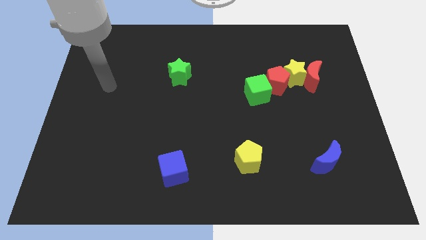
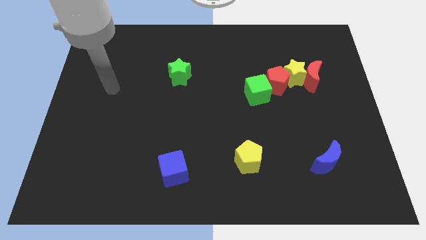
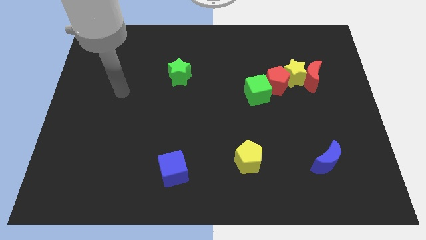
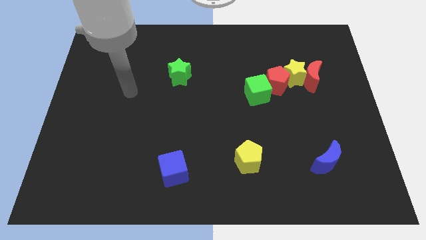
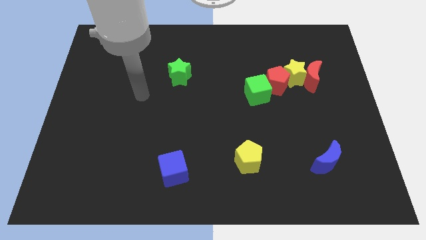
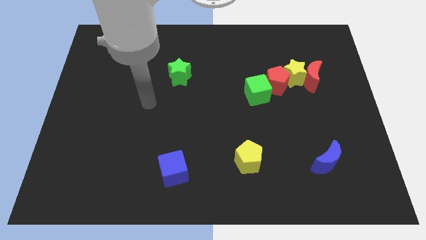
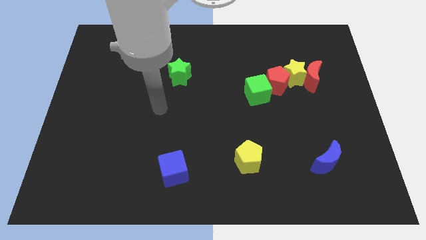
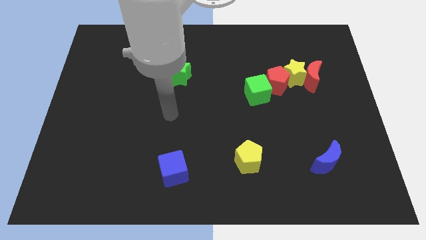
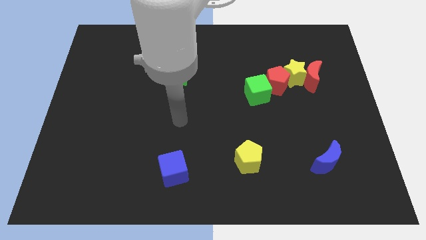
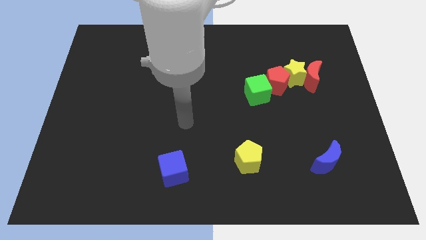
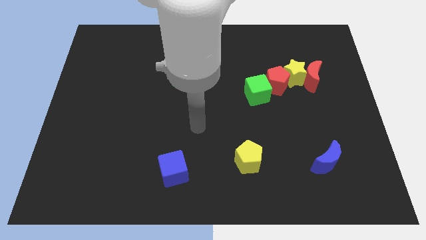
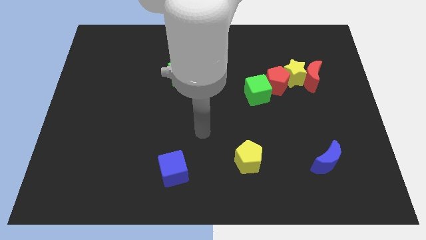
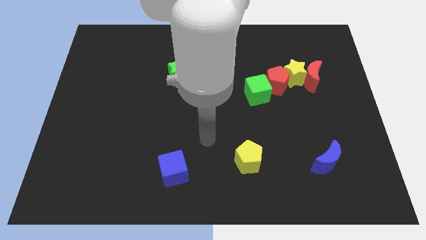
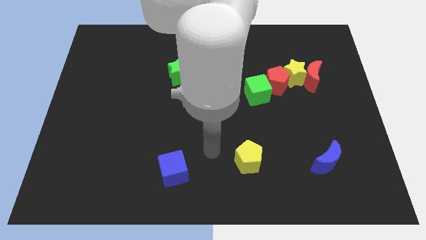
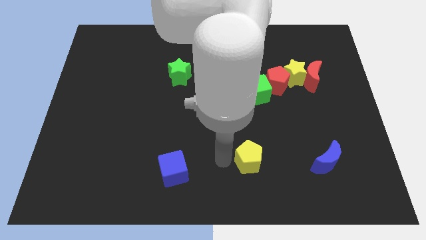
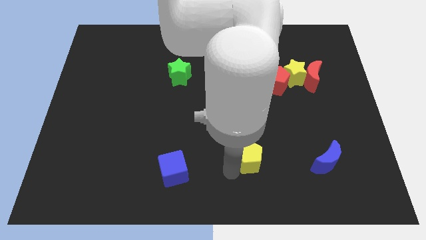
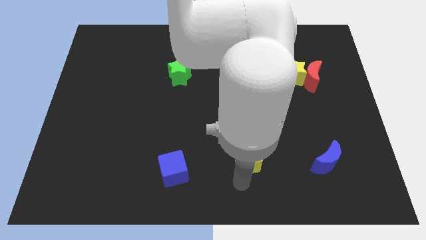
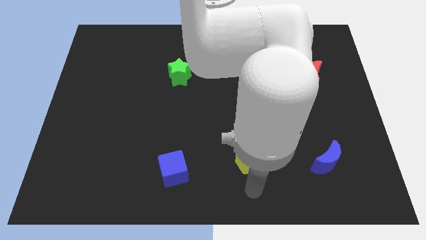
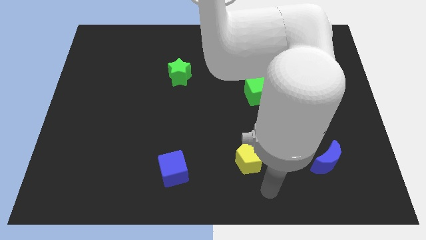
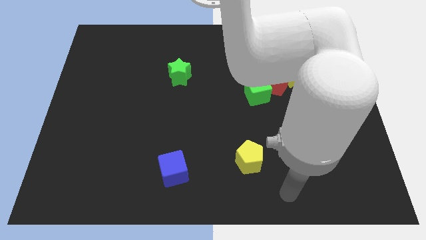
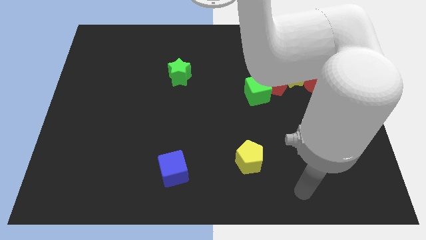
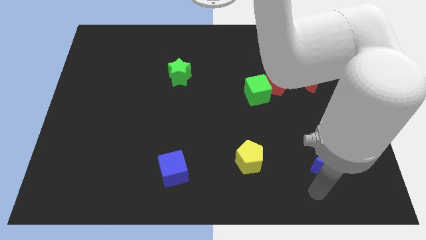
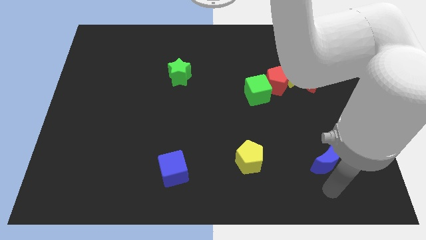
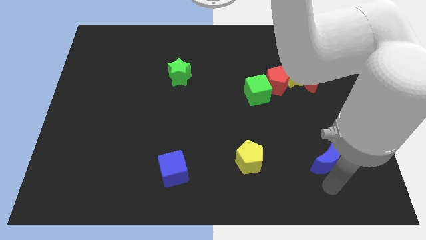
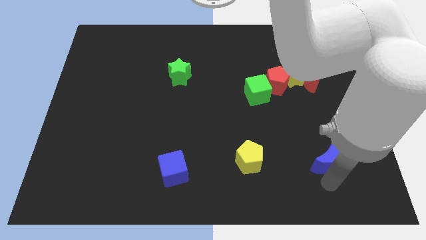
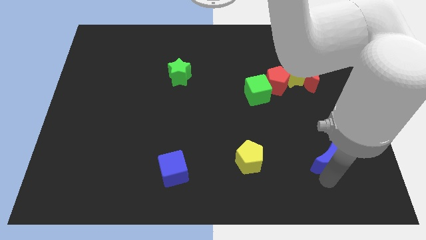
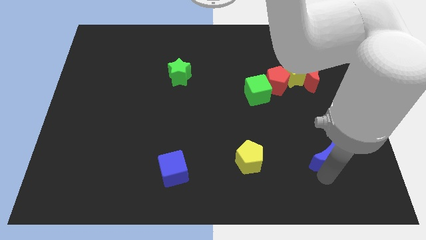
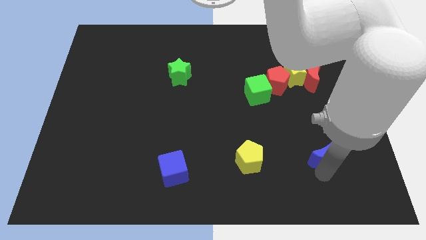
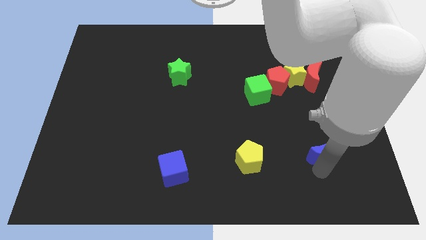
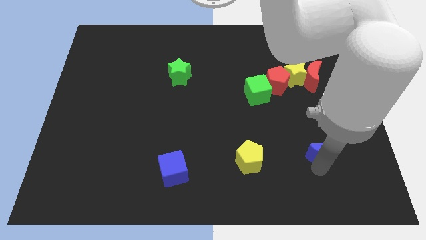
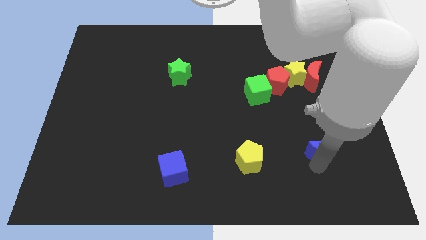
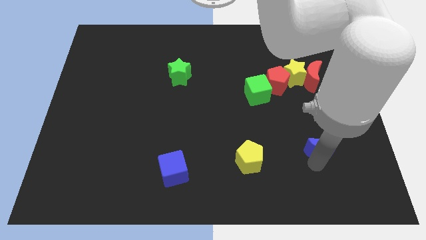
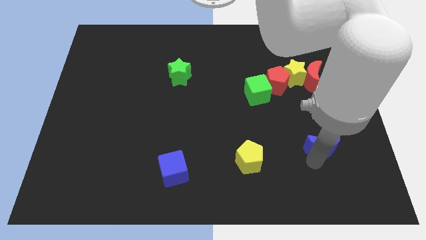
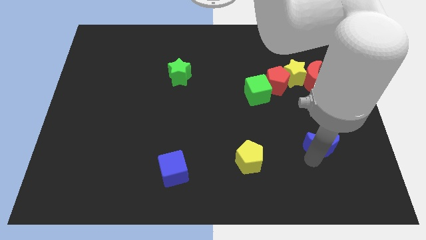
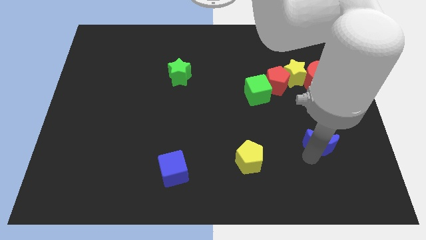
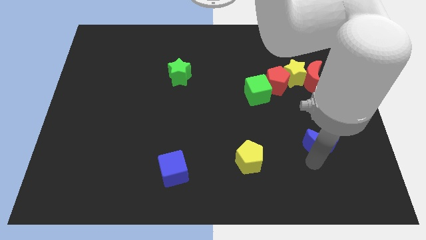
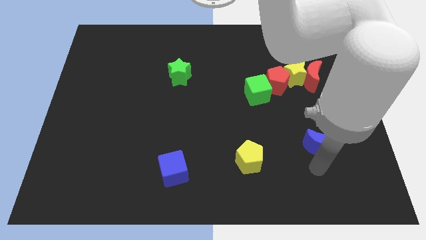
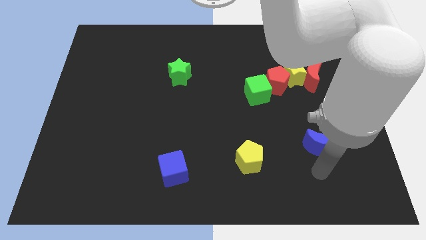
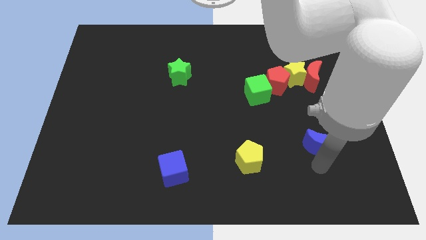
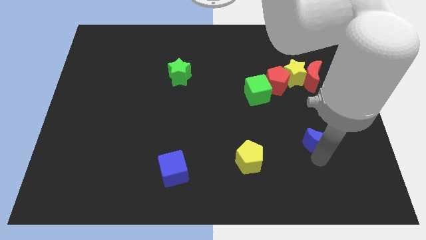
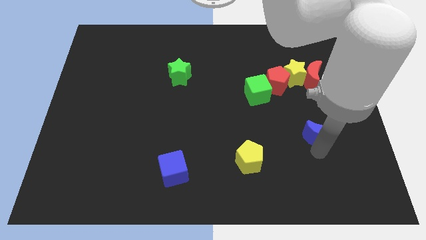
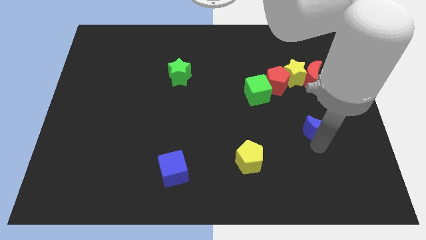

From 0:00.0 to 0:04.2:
slightly move the blue moon upwards

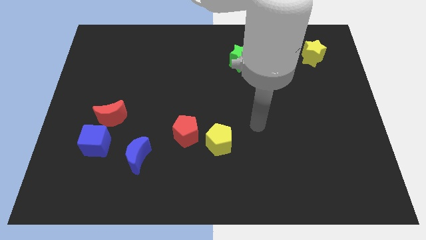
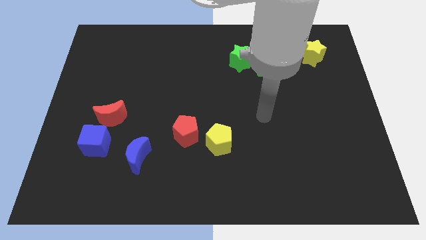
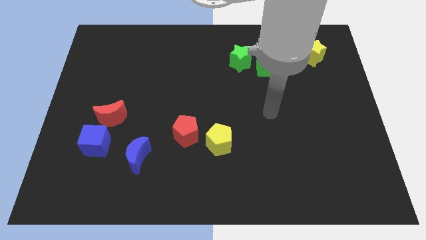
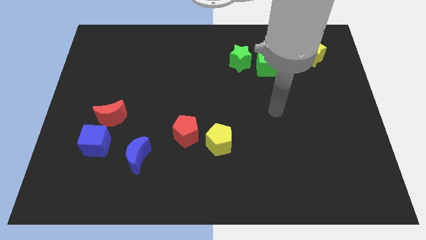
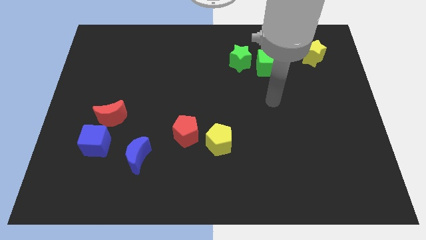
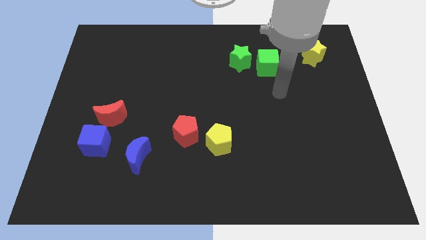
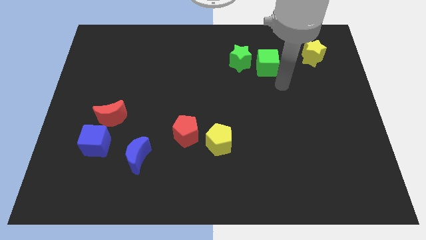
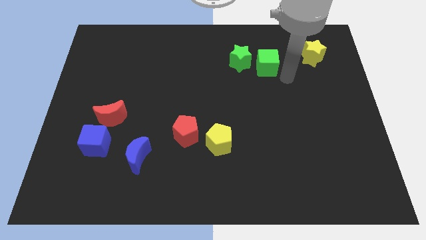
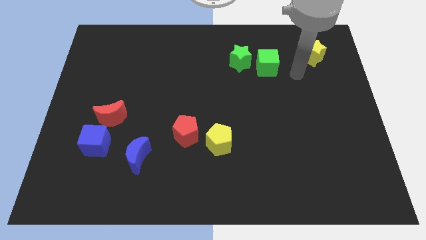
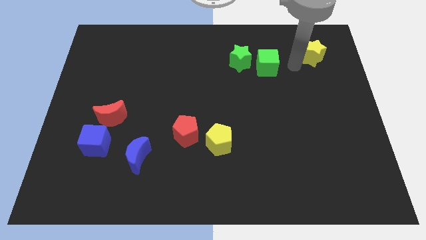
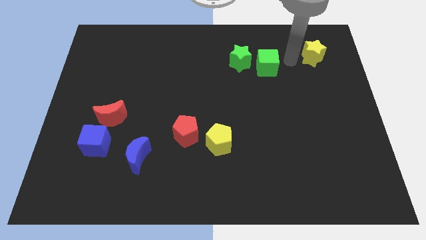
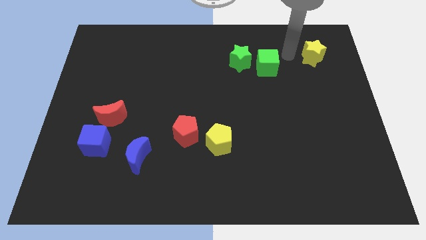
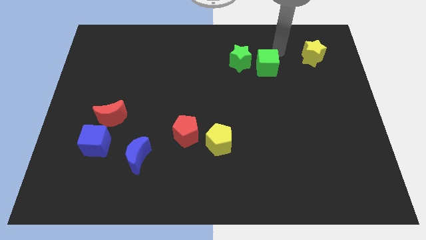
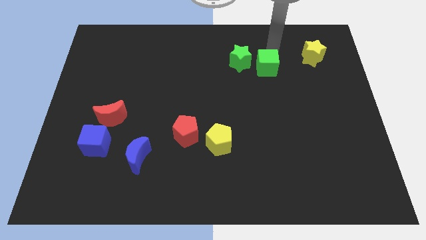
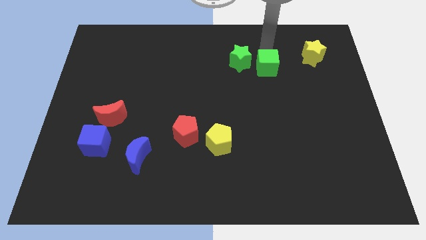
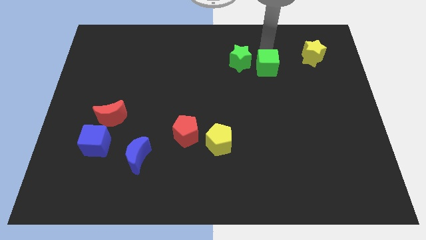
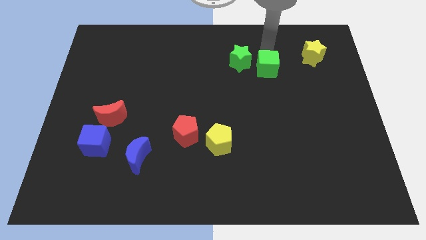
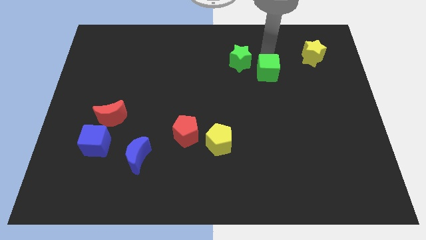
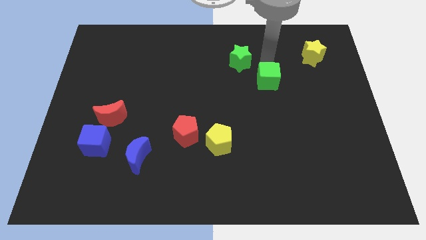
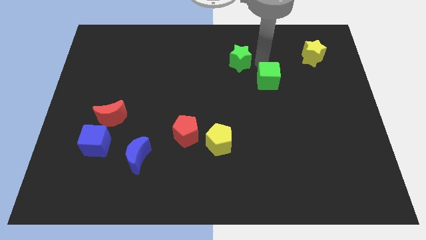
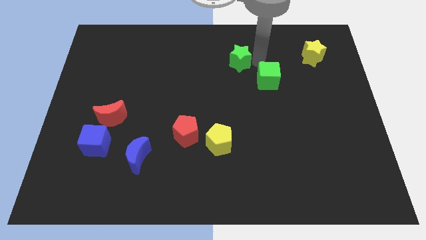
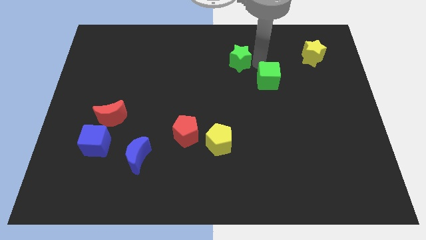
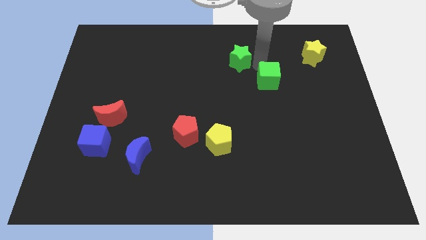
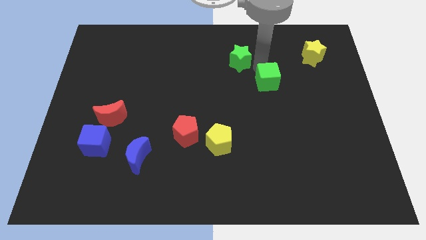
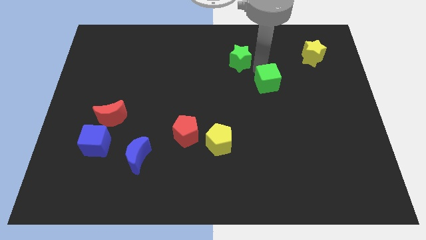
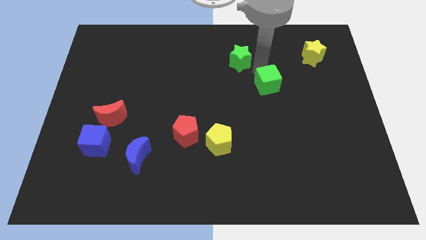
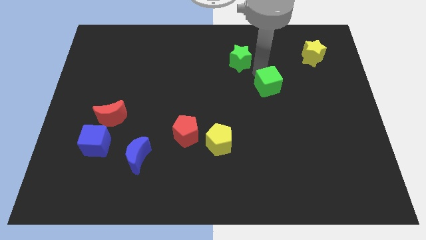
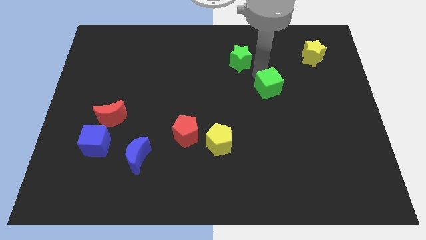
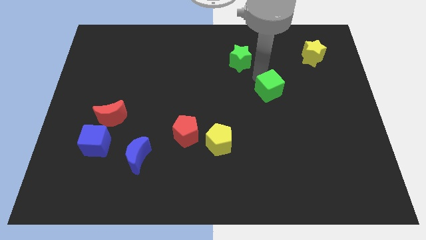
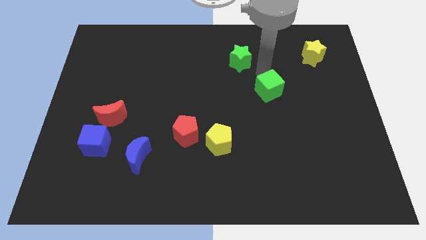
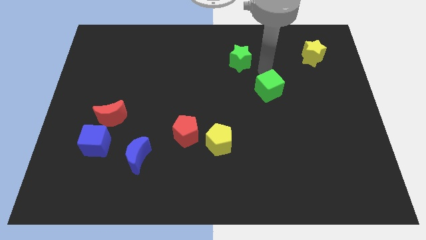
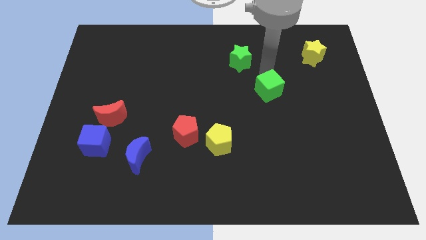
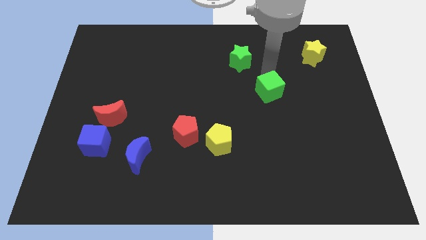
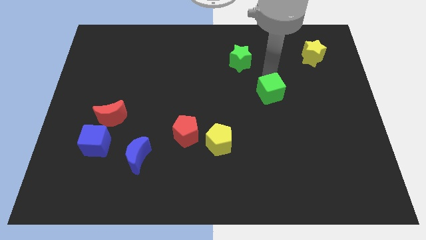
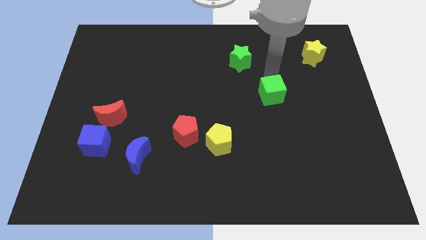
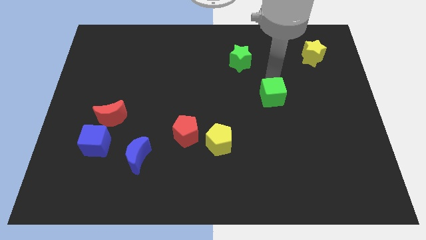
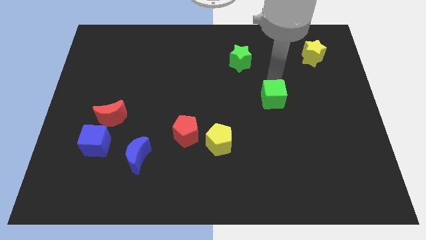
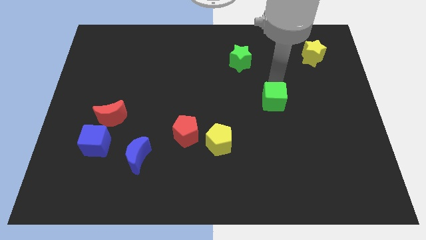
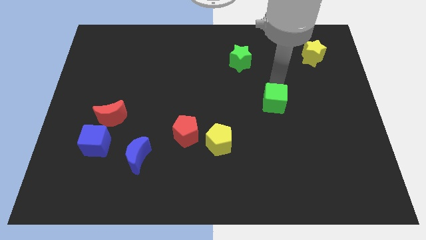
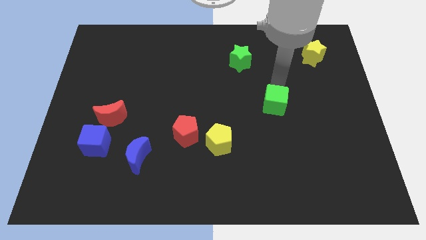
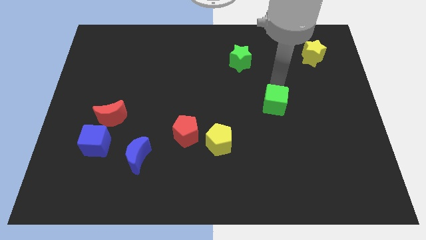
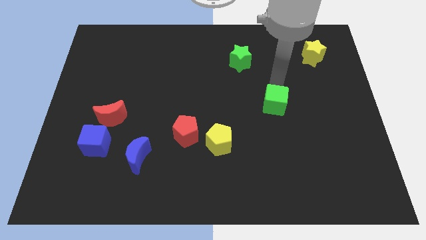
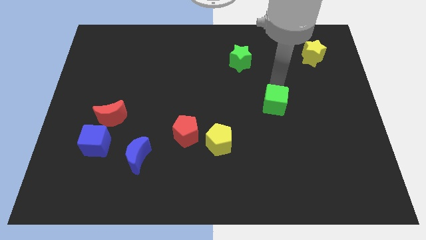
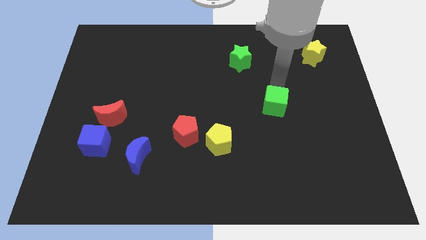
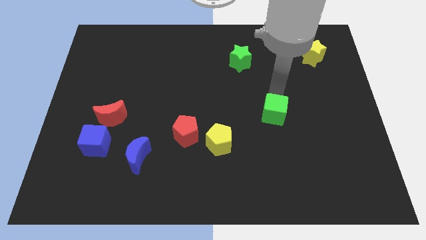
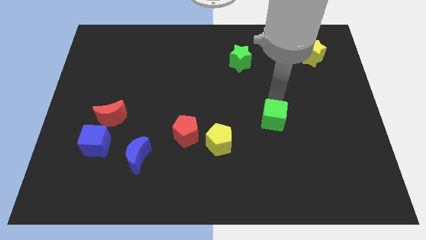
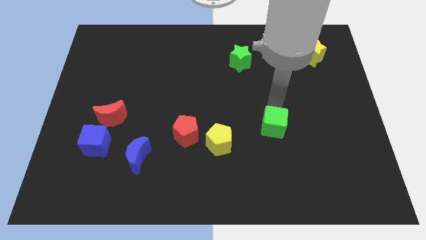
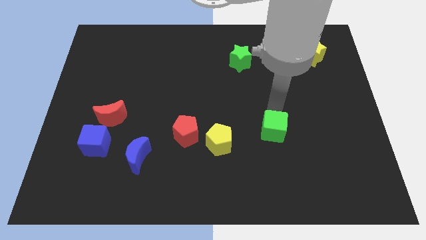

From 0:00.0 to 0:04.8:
move the green cube downwards
